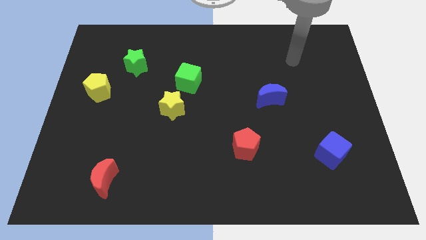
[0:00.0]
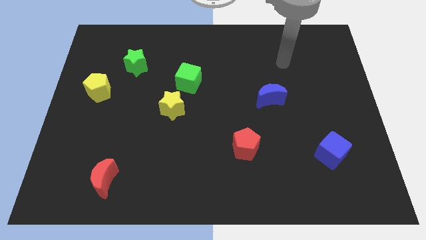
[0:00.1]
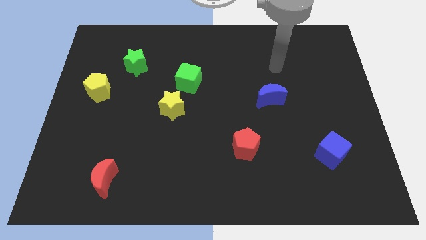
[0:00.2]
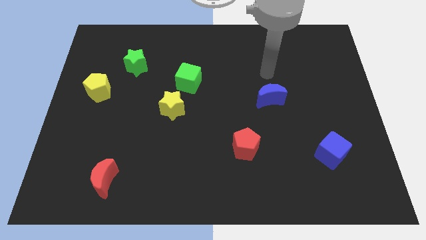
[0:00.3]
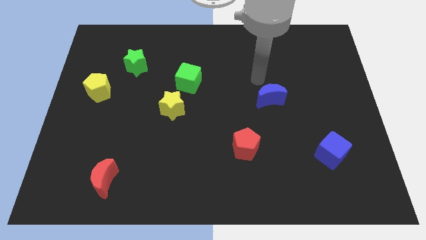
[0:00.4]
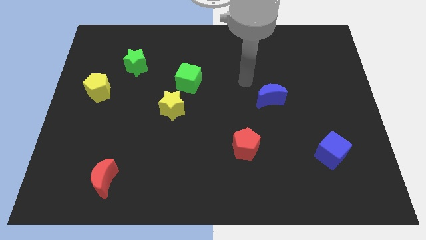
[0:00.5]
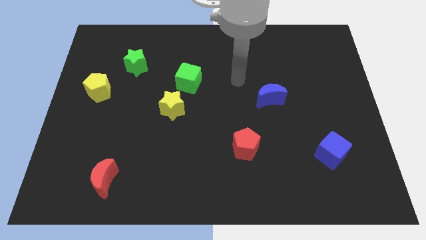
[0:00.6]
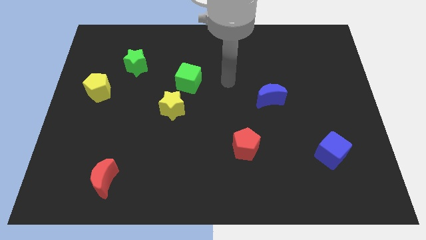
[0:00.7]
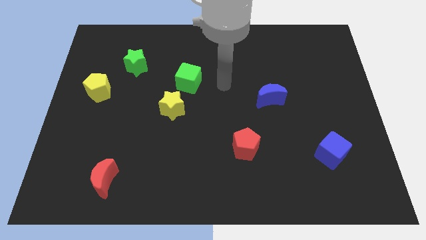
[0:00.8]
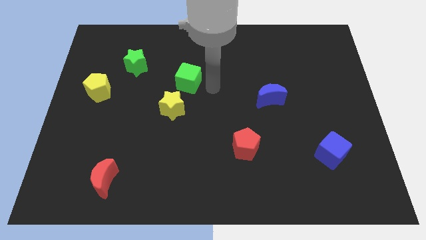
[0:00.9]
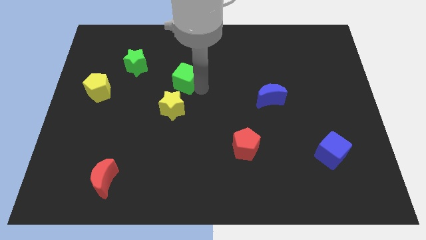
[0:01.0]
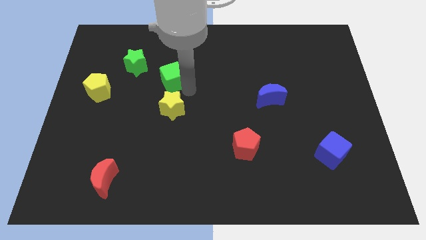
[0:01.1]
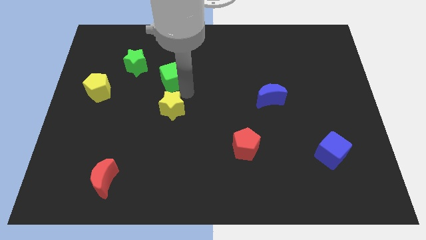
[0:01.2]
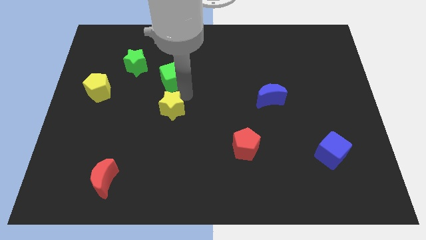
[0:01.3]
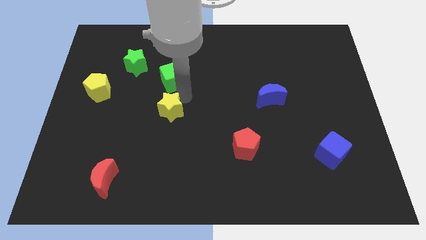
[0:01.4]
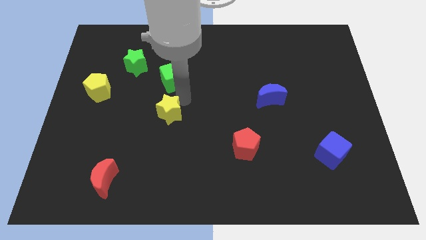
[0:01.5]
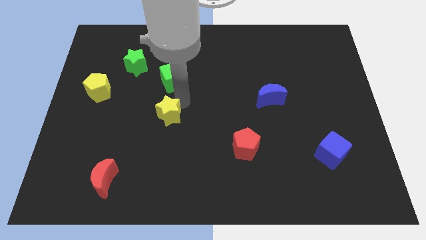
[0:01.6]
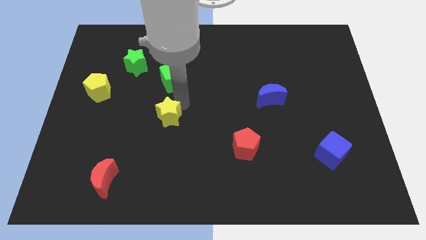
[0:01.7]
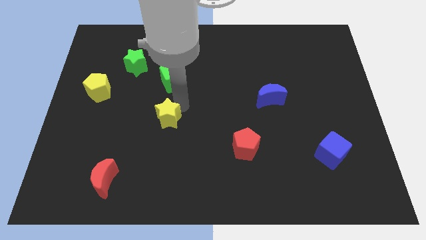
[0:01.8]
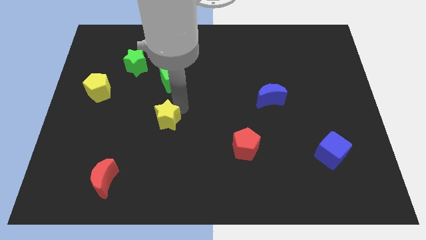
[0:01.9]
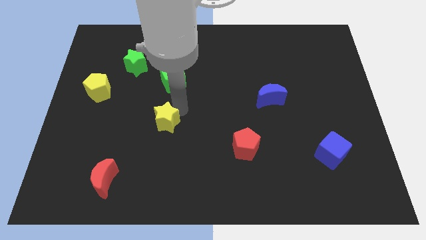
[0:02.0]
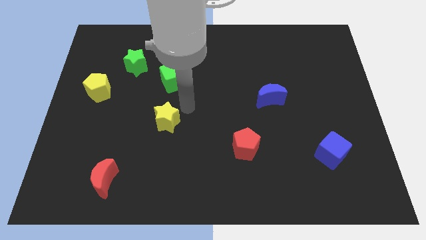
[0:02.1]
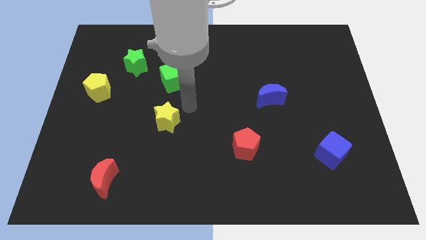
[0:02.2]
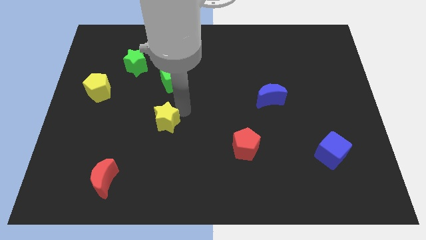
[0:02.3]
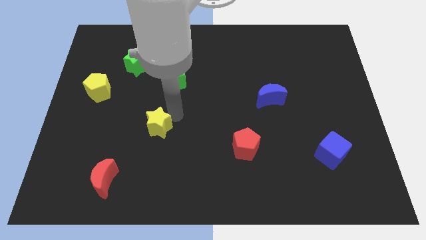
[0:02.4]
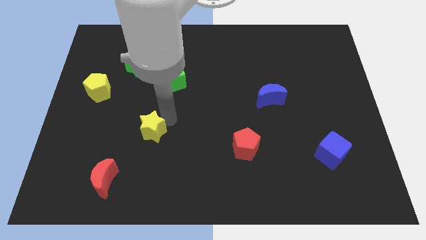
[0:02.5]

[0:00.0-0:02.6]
slightly slide the yellow star down and to the left diagonally

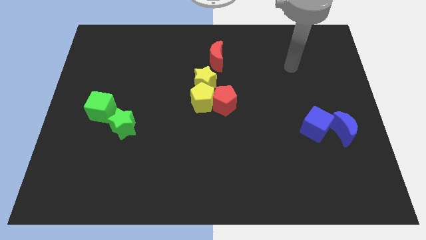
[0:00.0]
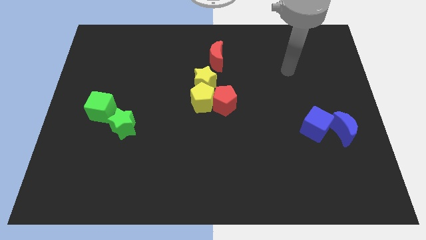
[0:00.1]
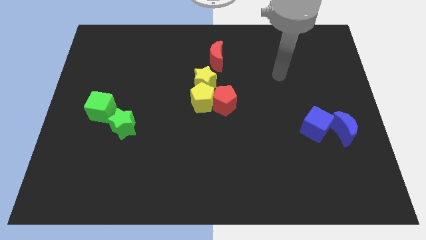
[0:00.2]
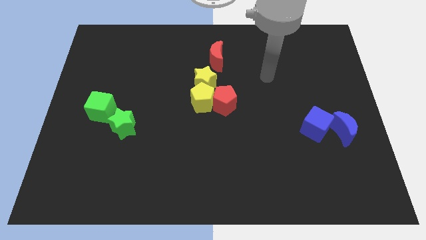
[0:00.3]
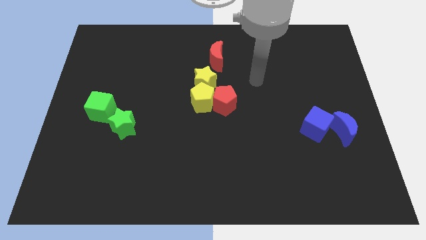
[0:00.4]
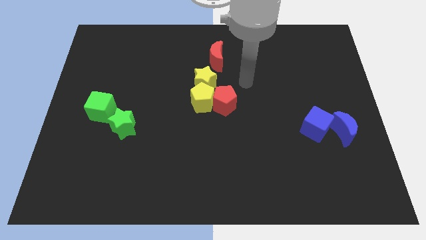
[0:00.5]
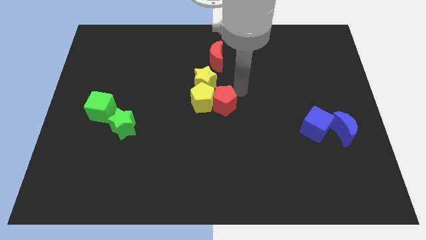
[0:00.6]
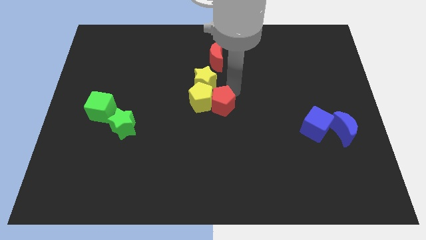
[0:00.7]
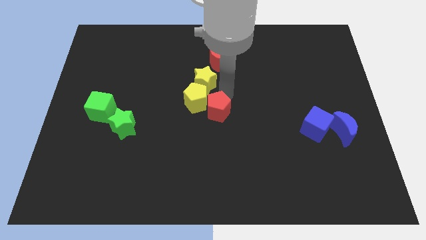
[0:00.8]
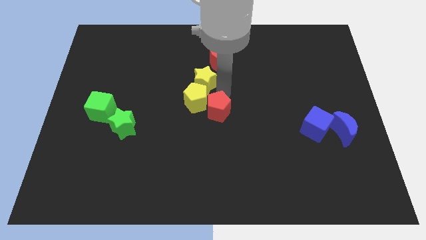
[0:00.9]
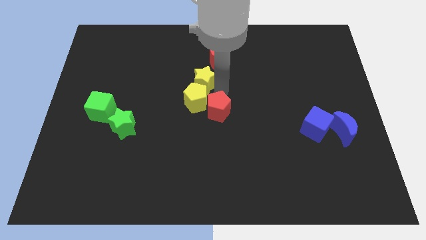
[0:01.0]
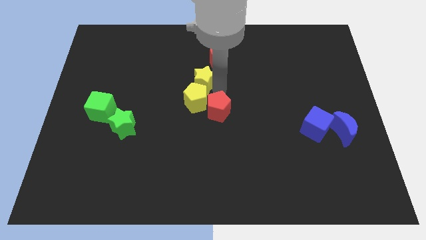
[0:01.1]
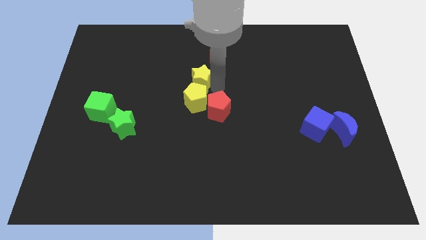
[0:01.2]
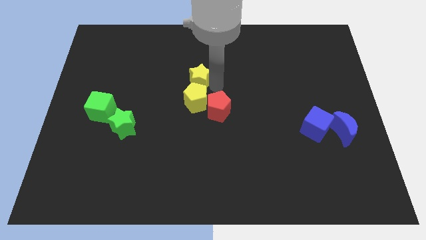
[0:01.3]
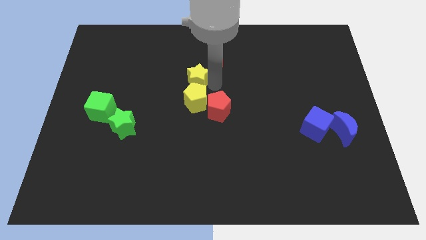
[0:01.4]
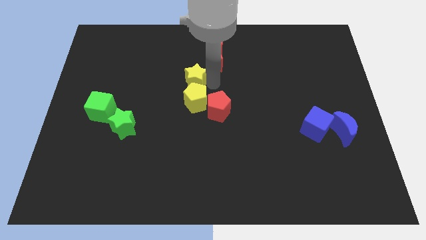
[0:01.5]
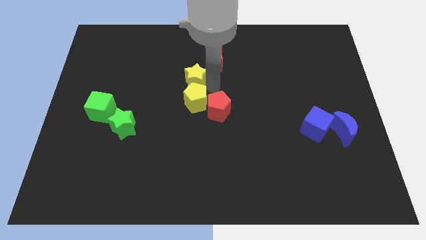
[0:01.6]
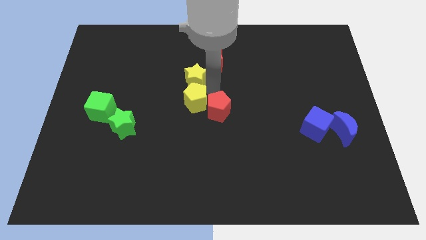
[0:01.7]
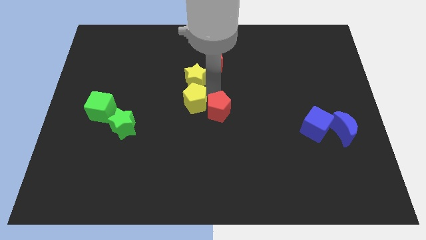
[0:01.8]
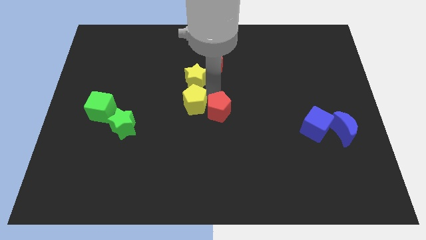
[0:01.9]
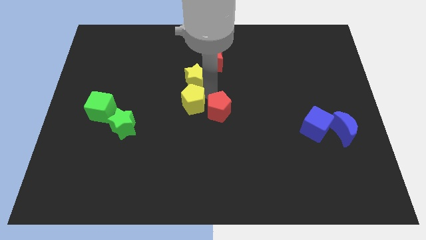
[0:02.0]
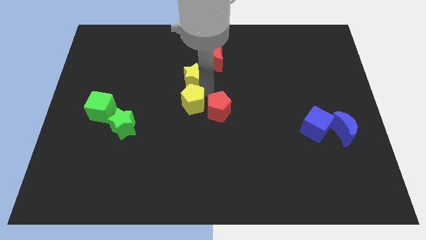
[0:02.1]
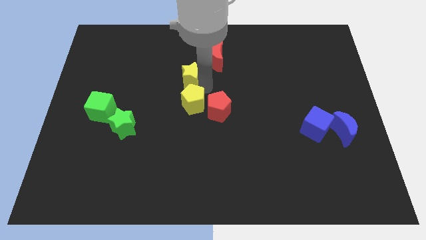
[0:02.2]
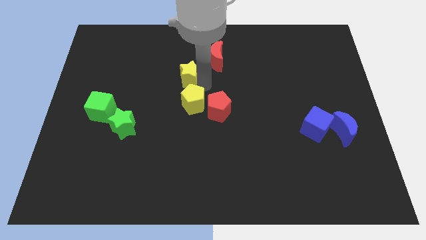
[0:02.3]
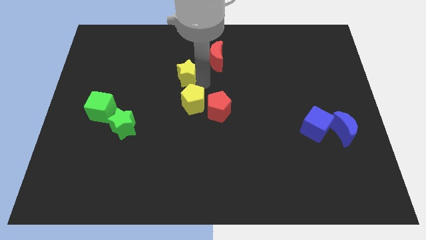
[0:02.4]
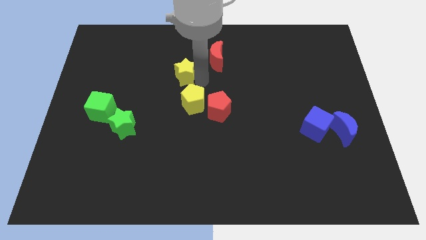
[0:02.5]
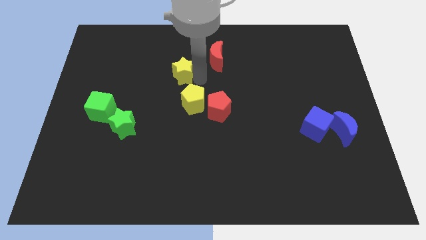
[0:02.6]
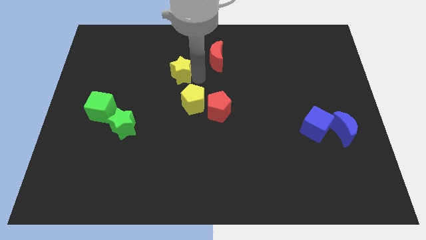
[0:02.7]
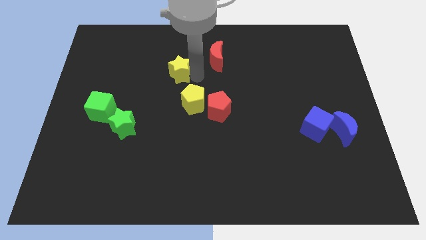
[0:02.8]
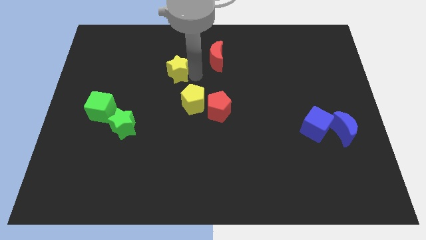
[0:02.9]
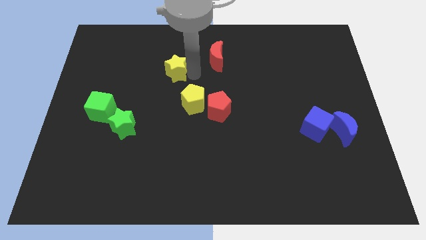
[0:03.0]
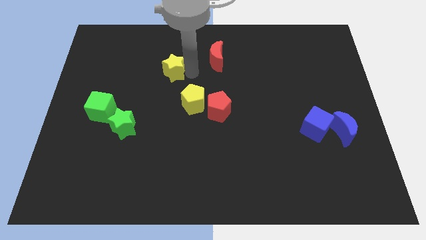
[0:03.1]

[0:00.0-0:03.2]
slightly push the yellow star left

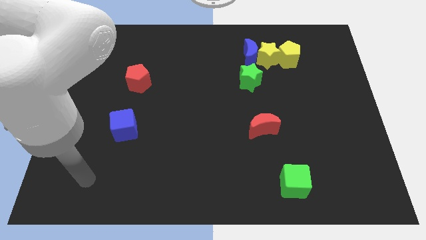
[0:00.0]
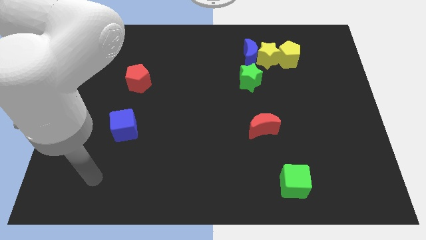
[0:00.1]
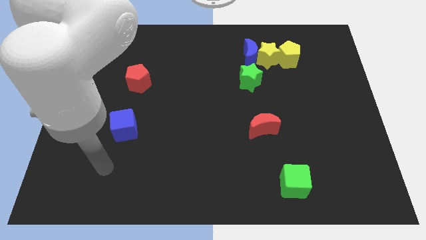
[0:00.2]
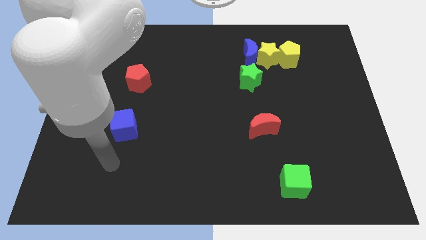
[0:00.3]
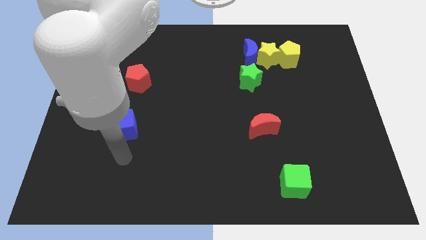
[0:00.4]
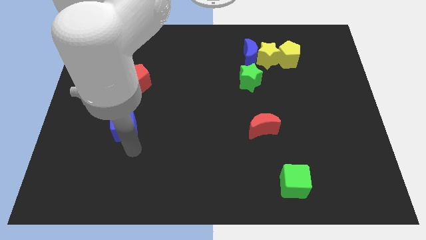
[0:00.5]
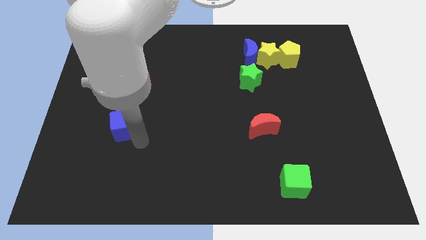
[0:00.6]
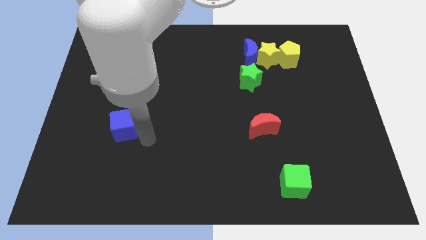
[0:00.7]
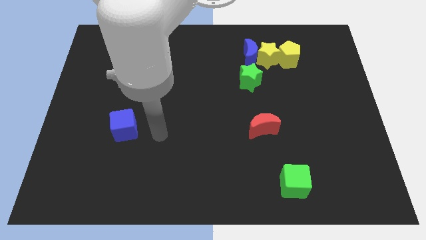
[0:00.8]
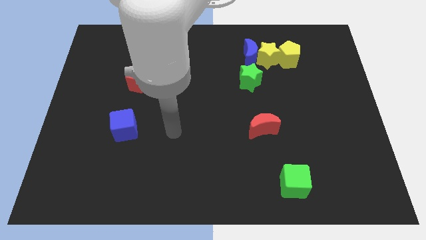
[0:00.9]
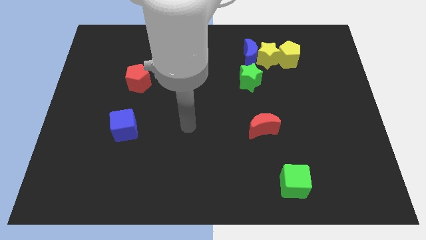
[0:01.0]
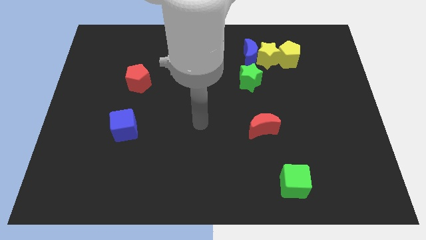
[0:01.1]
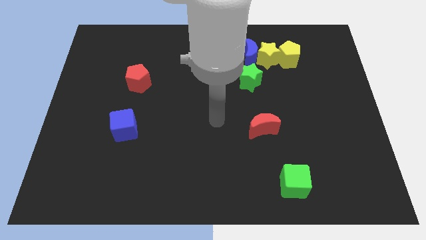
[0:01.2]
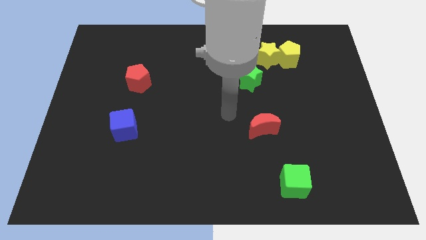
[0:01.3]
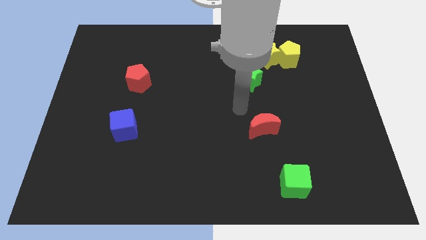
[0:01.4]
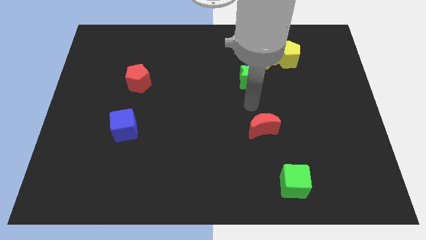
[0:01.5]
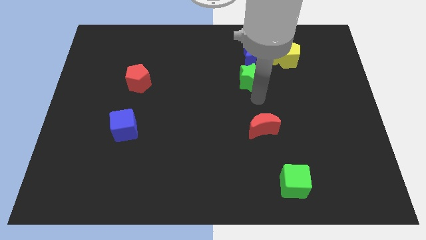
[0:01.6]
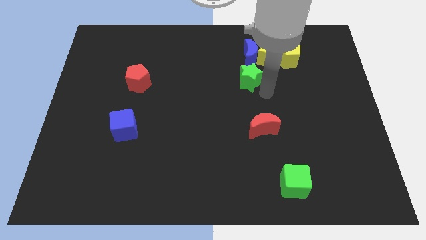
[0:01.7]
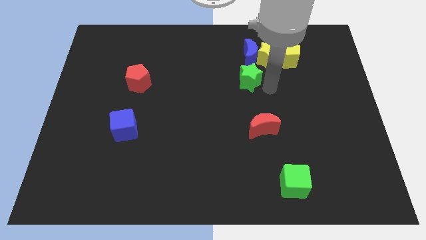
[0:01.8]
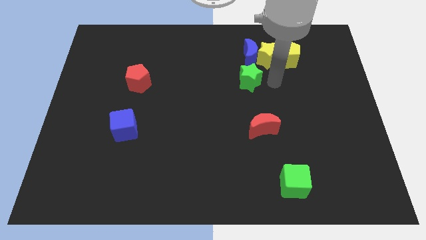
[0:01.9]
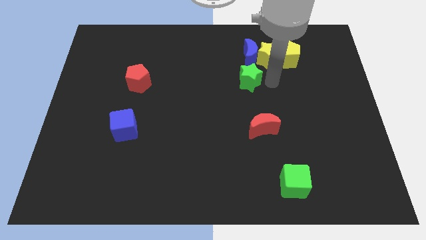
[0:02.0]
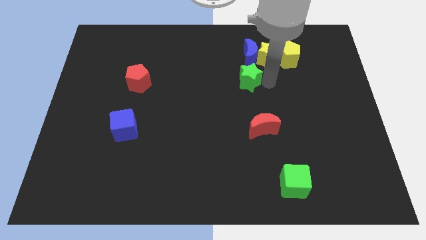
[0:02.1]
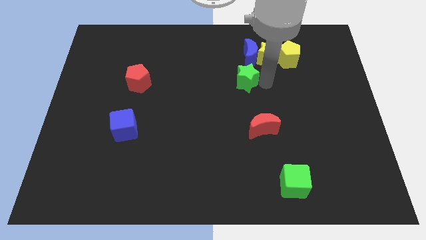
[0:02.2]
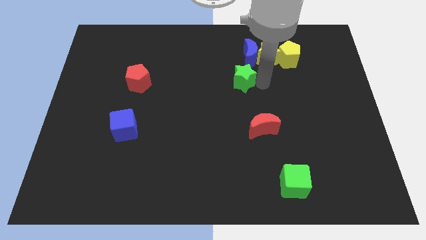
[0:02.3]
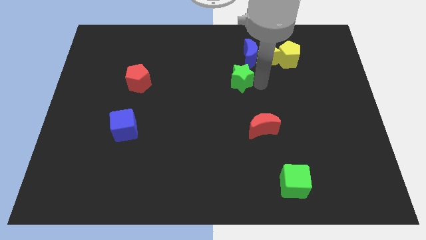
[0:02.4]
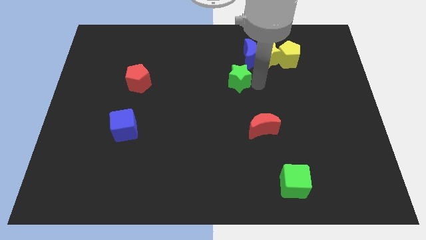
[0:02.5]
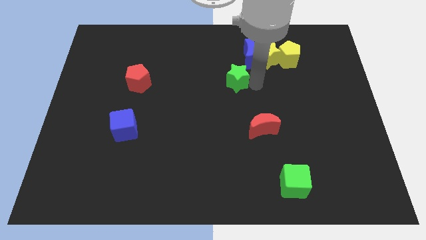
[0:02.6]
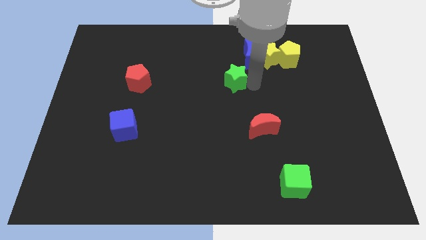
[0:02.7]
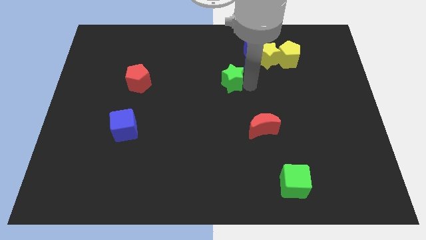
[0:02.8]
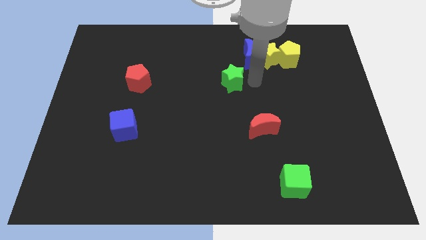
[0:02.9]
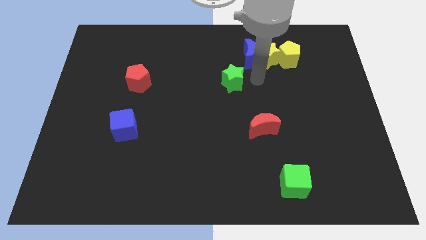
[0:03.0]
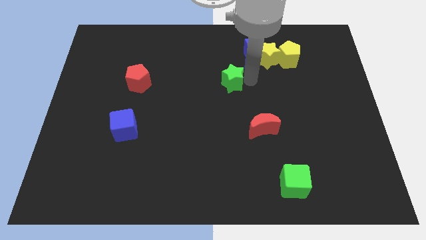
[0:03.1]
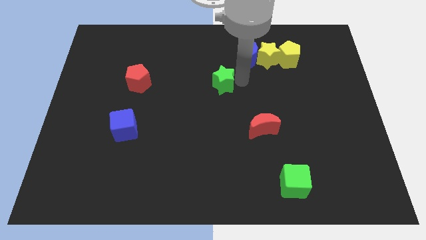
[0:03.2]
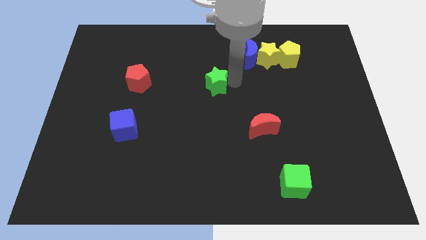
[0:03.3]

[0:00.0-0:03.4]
move the green star slightly to the left
